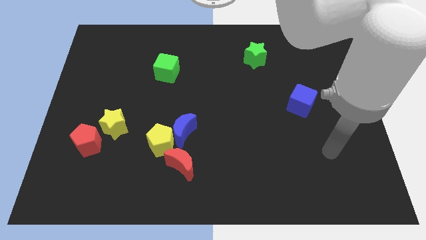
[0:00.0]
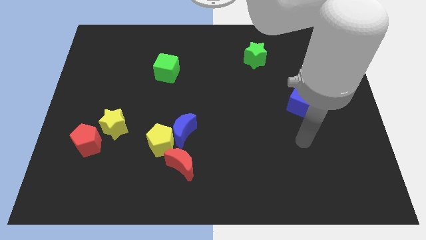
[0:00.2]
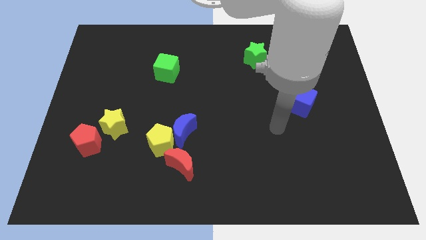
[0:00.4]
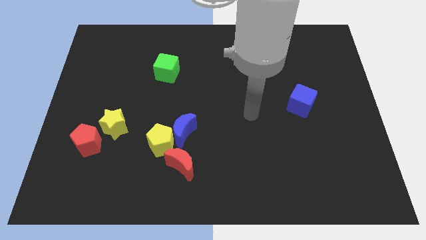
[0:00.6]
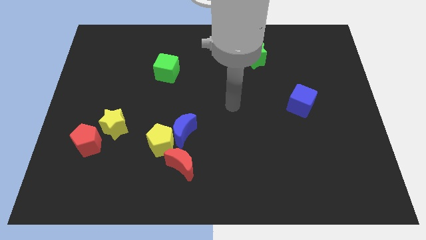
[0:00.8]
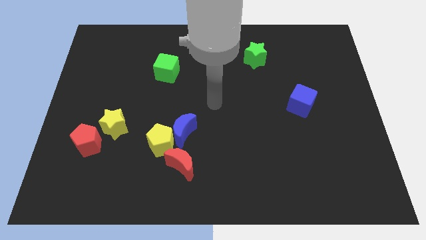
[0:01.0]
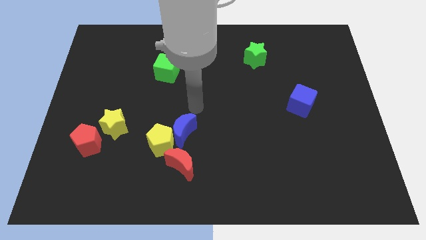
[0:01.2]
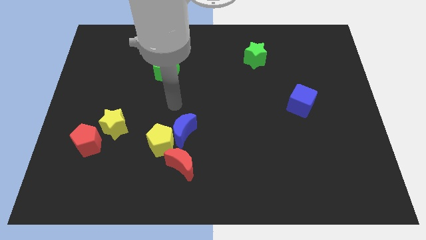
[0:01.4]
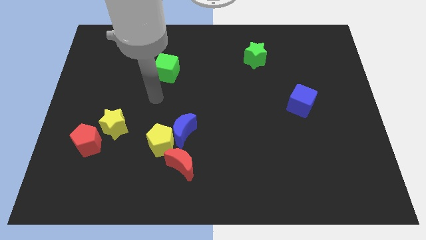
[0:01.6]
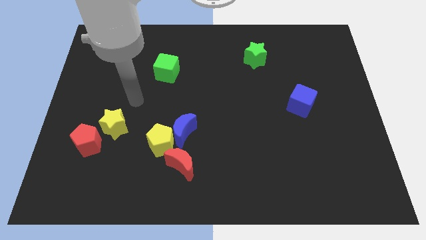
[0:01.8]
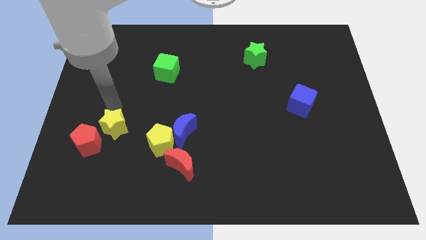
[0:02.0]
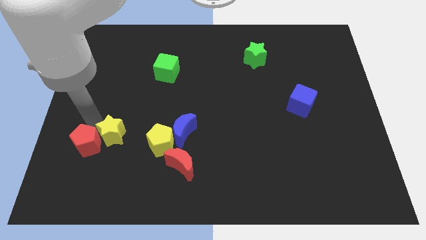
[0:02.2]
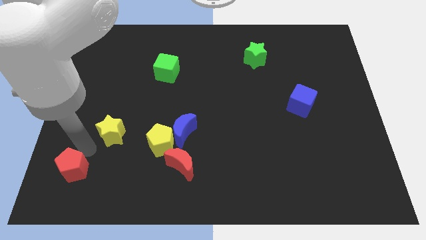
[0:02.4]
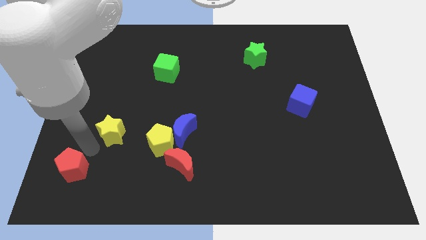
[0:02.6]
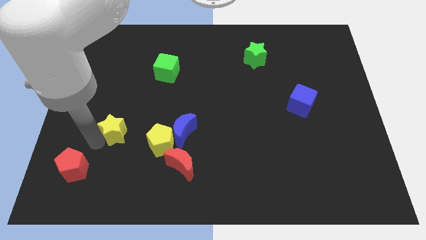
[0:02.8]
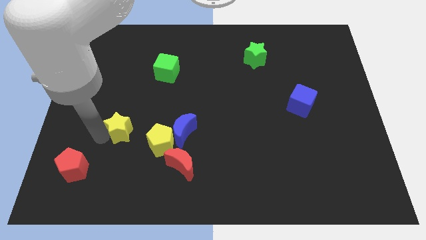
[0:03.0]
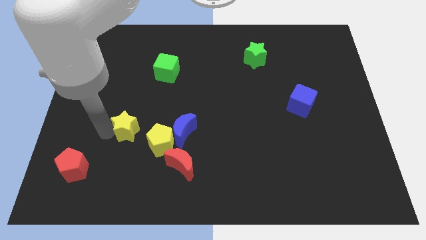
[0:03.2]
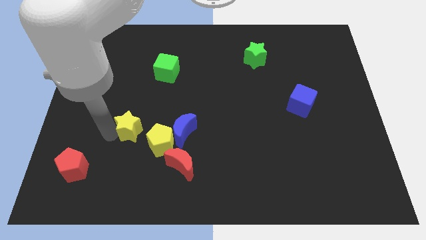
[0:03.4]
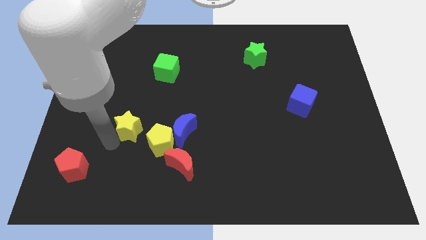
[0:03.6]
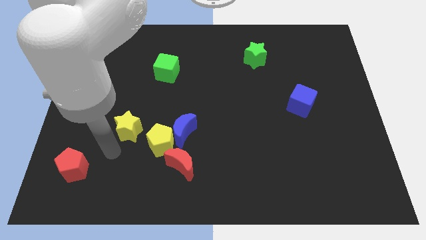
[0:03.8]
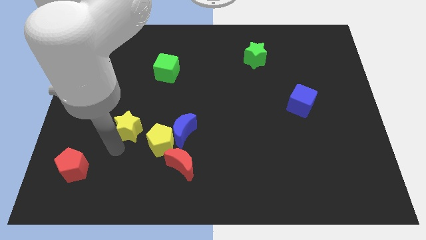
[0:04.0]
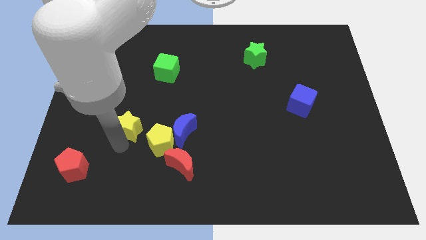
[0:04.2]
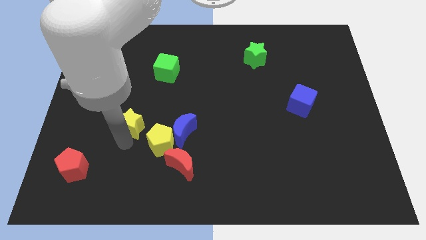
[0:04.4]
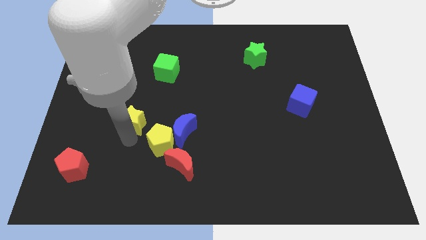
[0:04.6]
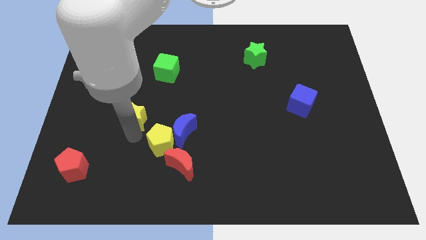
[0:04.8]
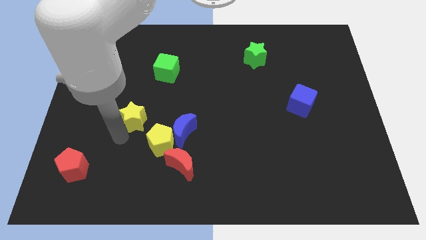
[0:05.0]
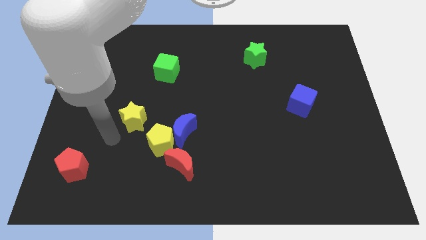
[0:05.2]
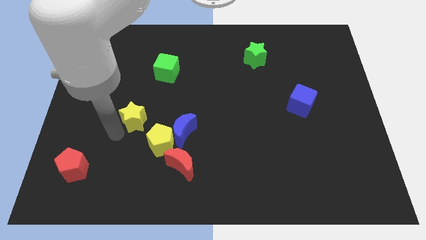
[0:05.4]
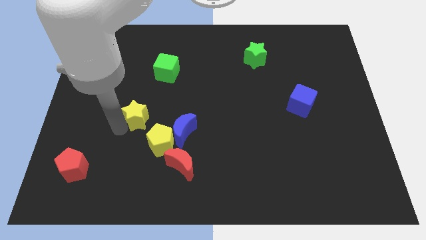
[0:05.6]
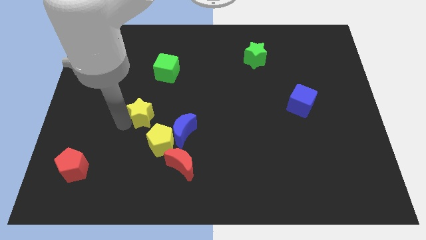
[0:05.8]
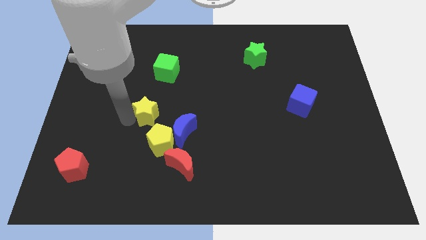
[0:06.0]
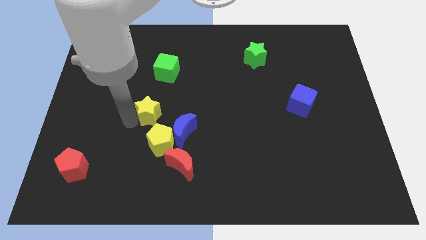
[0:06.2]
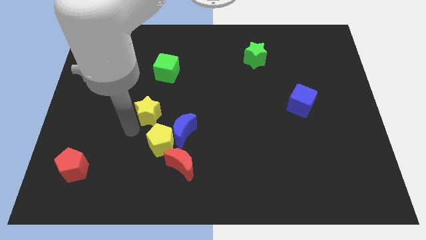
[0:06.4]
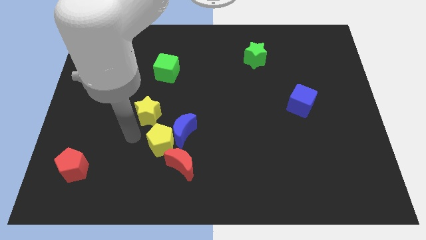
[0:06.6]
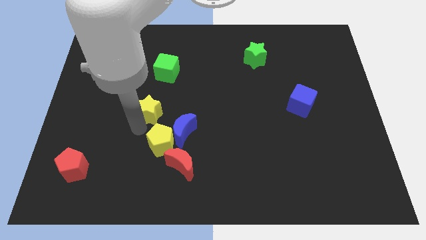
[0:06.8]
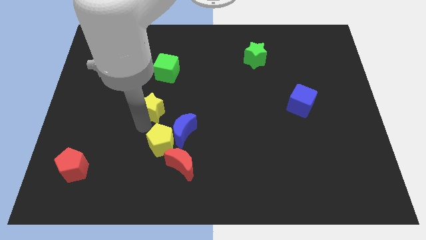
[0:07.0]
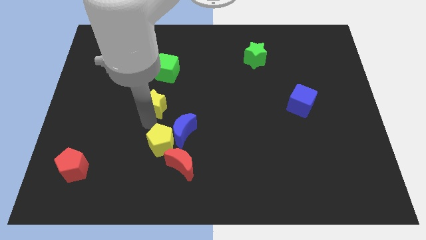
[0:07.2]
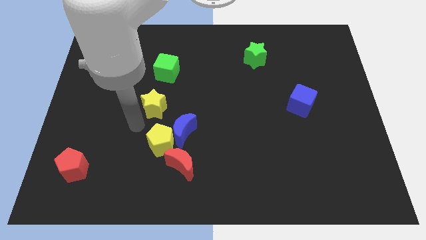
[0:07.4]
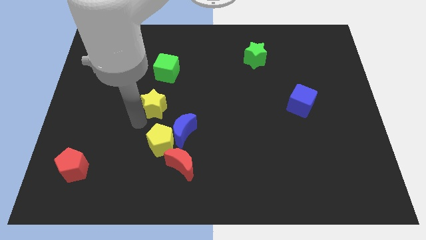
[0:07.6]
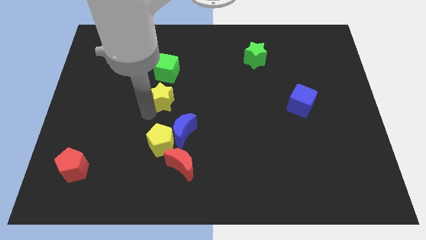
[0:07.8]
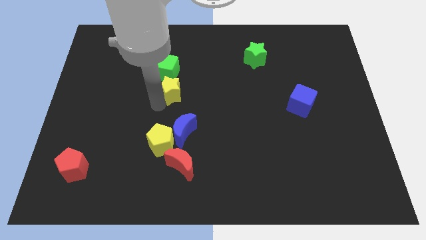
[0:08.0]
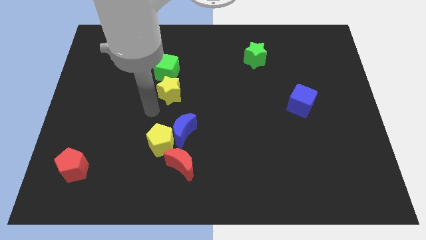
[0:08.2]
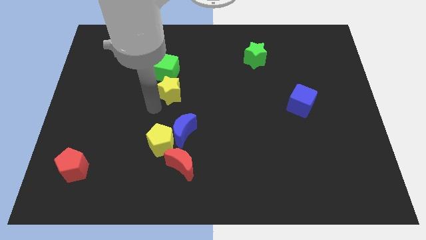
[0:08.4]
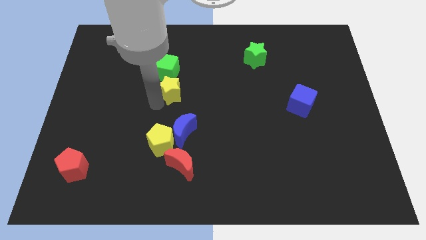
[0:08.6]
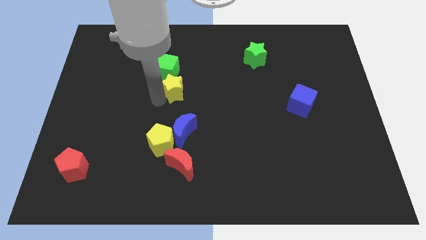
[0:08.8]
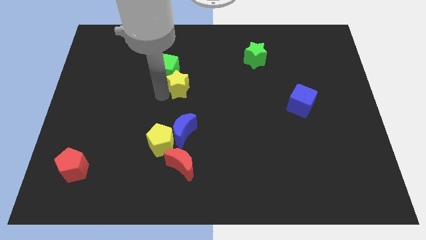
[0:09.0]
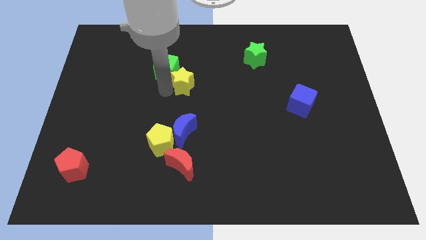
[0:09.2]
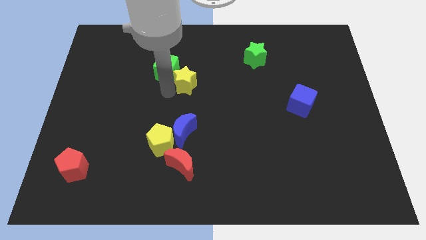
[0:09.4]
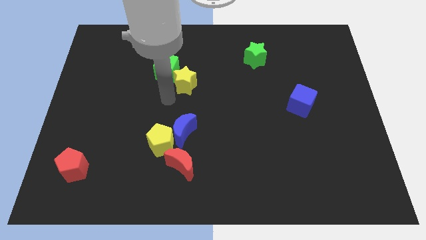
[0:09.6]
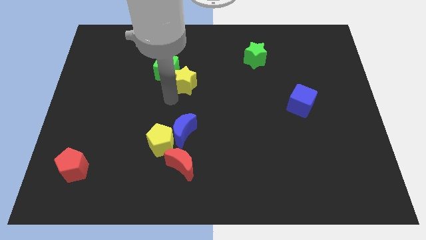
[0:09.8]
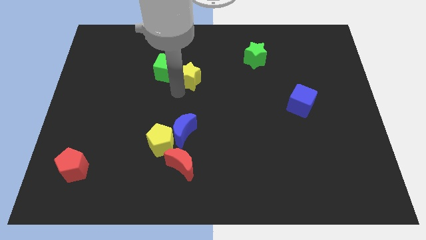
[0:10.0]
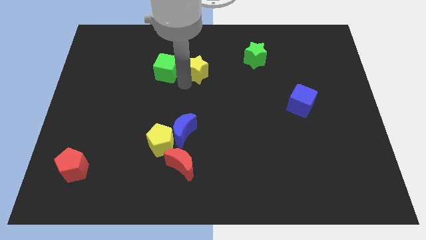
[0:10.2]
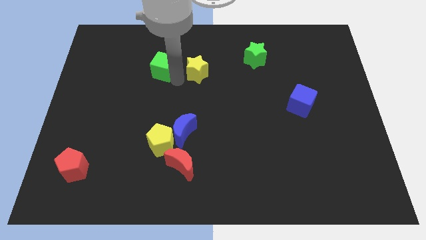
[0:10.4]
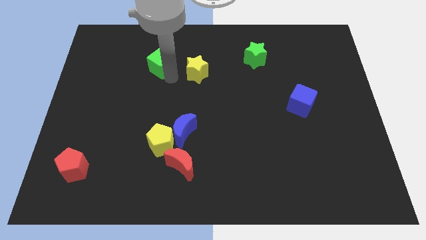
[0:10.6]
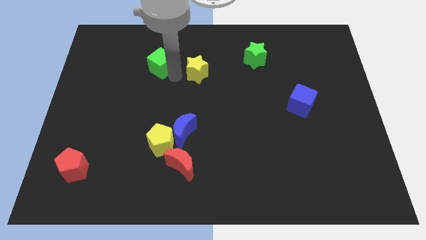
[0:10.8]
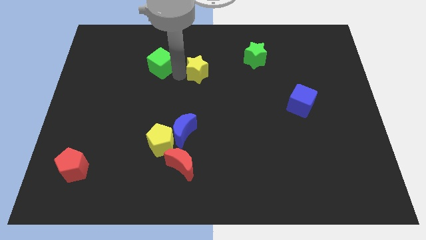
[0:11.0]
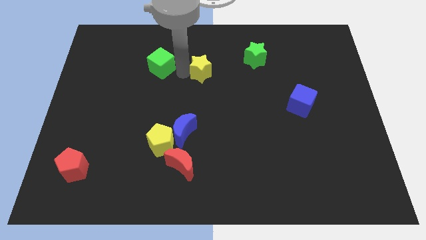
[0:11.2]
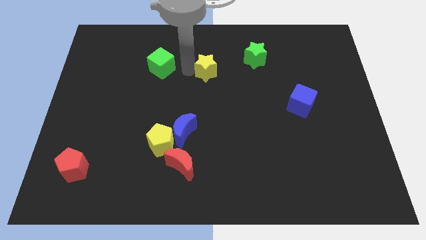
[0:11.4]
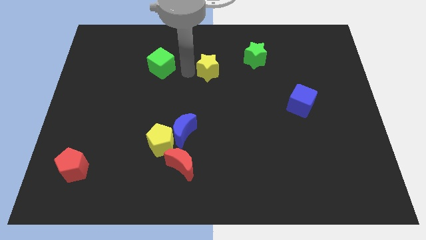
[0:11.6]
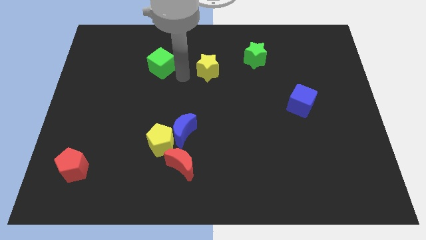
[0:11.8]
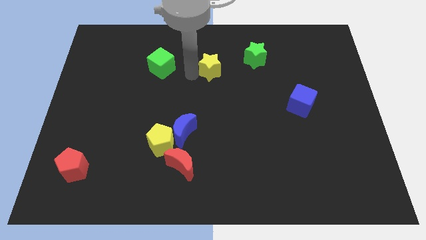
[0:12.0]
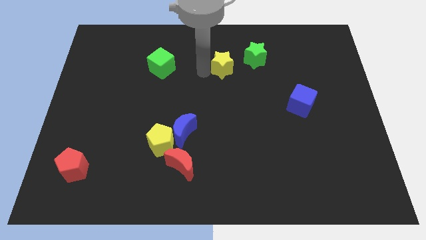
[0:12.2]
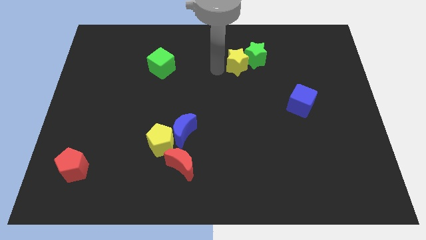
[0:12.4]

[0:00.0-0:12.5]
put the yellow star close to the green star
